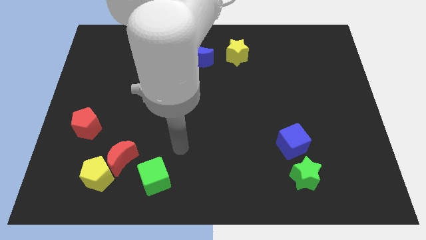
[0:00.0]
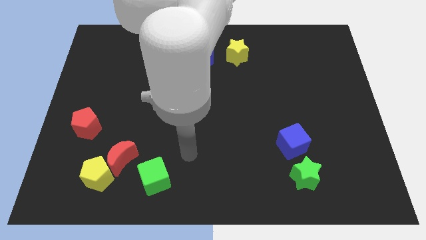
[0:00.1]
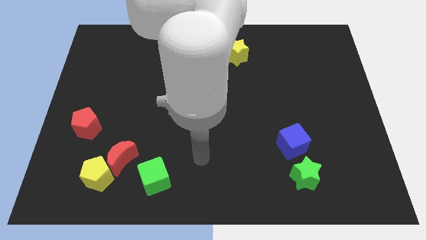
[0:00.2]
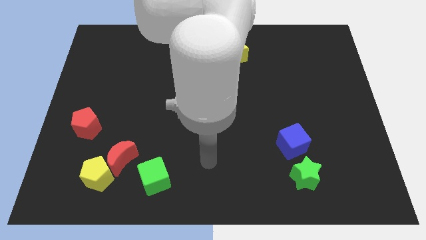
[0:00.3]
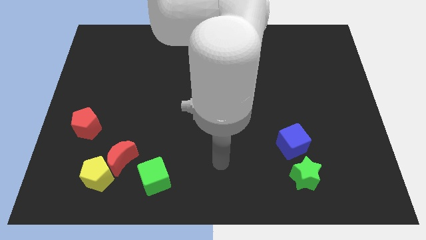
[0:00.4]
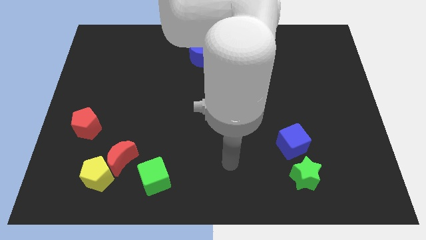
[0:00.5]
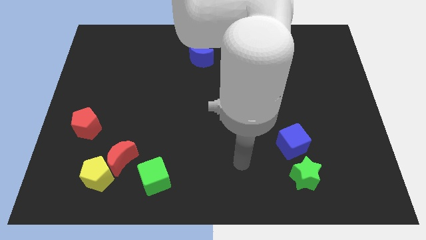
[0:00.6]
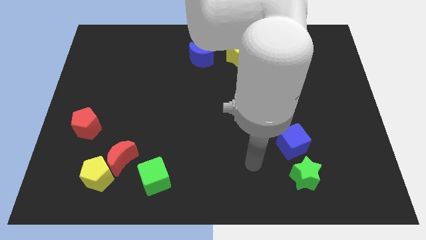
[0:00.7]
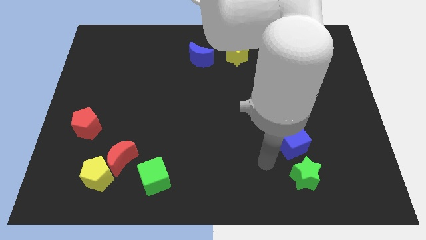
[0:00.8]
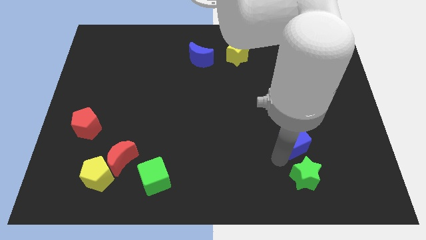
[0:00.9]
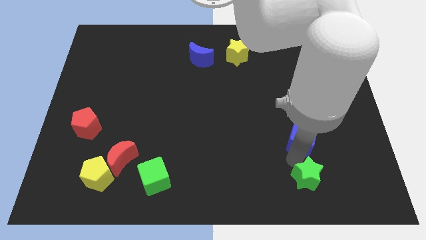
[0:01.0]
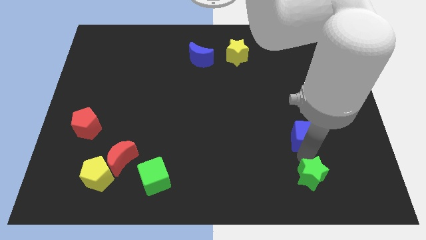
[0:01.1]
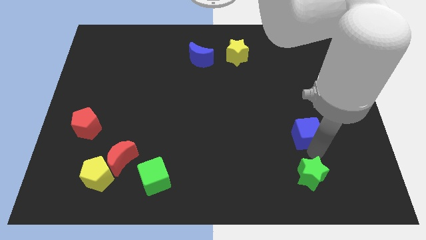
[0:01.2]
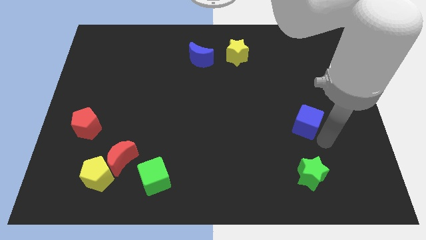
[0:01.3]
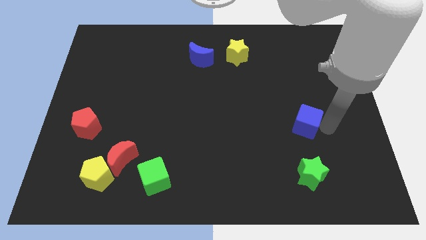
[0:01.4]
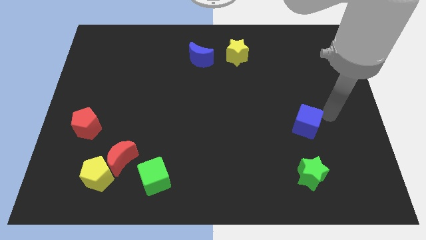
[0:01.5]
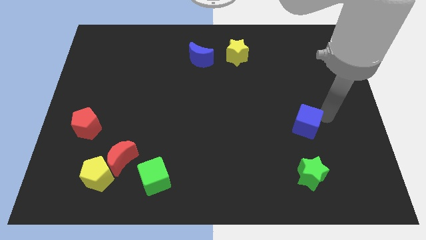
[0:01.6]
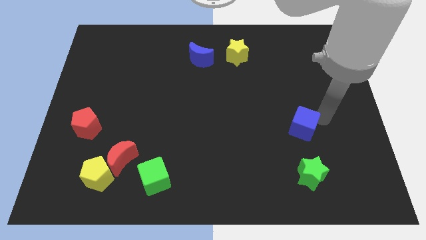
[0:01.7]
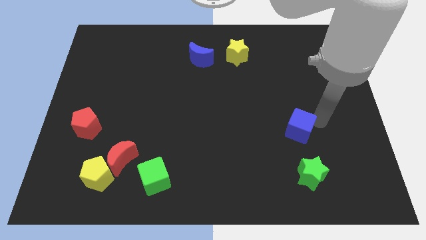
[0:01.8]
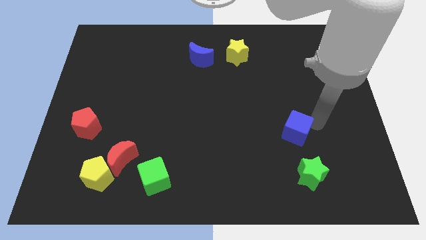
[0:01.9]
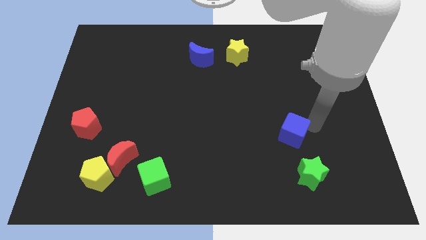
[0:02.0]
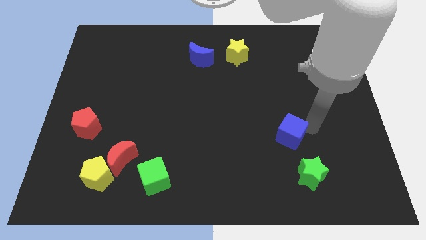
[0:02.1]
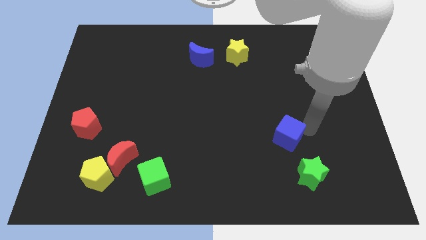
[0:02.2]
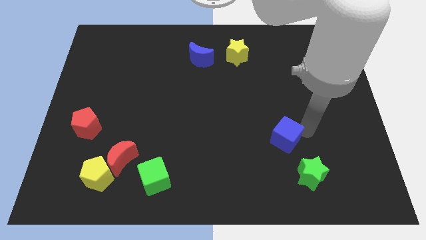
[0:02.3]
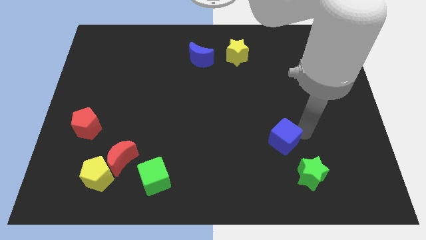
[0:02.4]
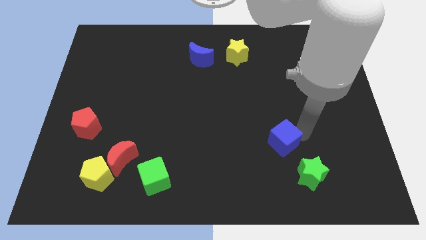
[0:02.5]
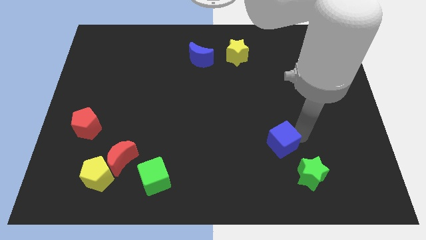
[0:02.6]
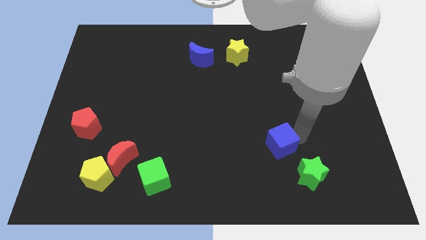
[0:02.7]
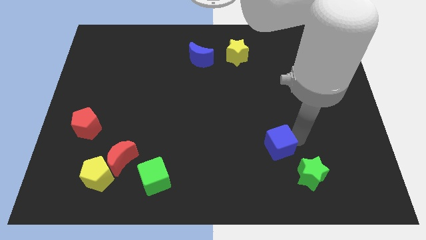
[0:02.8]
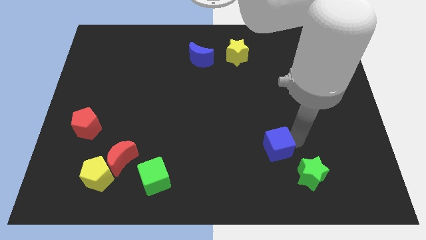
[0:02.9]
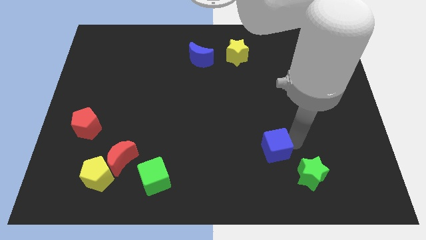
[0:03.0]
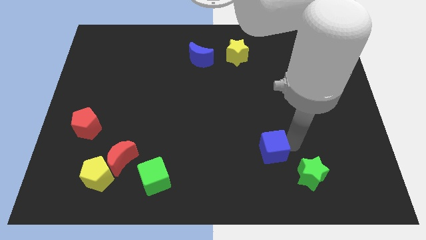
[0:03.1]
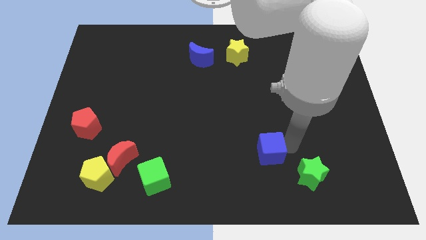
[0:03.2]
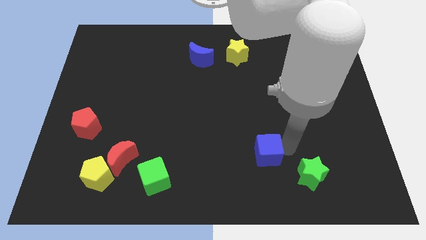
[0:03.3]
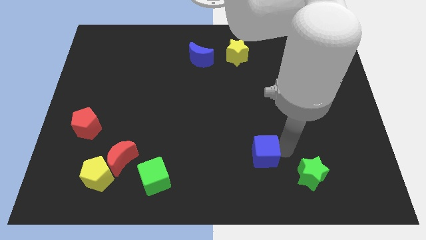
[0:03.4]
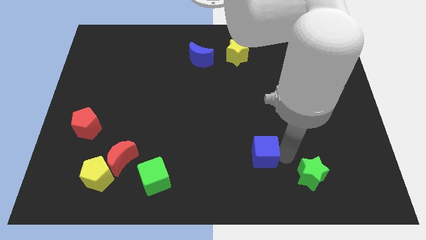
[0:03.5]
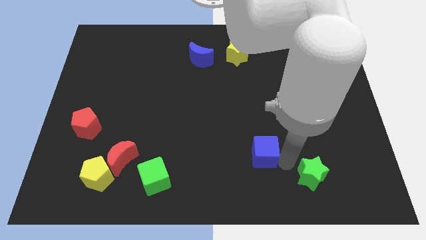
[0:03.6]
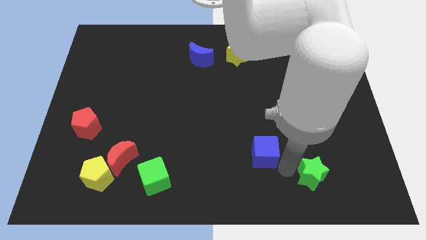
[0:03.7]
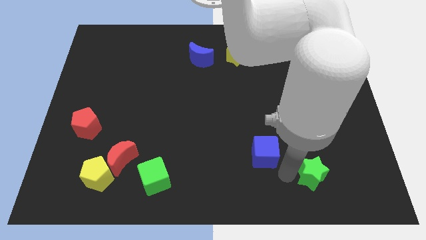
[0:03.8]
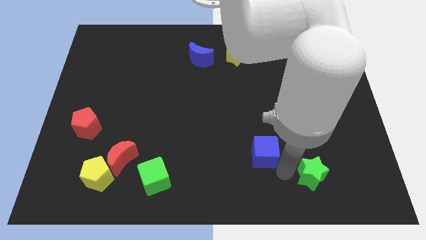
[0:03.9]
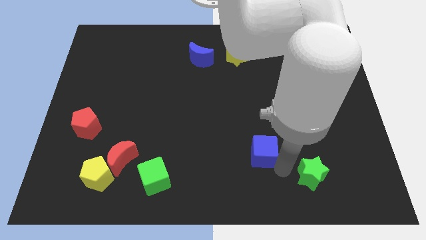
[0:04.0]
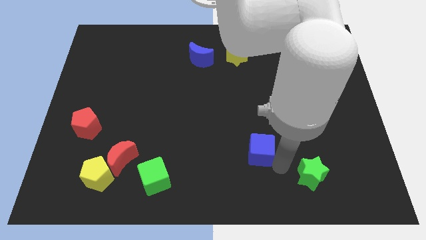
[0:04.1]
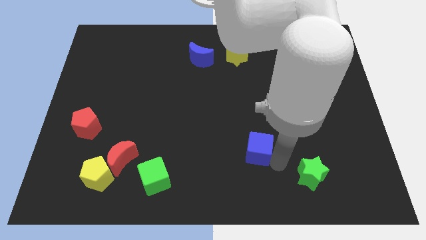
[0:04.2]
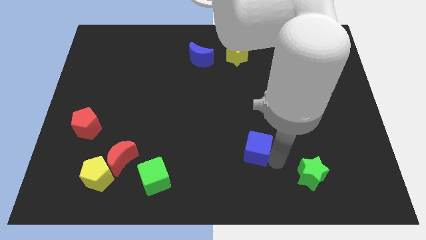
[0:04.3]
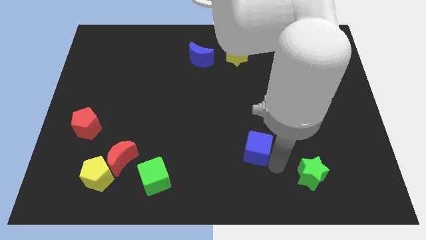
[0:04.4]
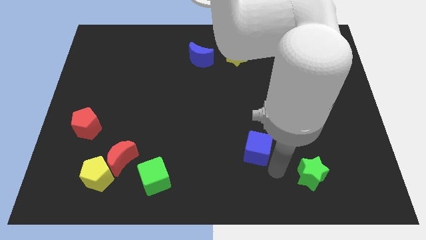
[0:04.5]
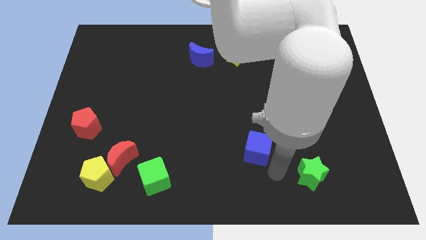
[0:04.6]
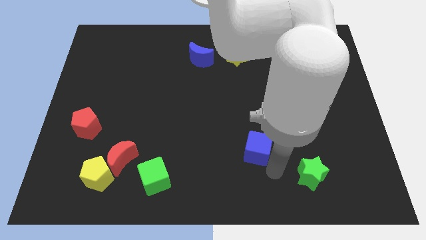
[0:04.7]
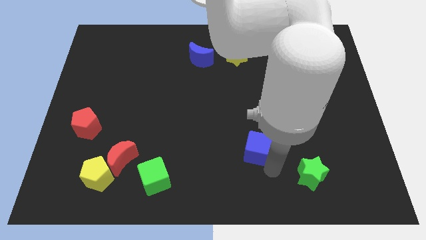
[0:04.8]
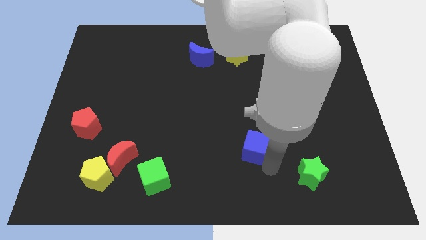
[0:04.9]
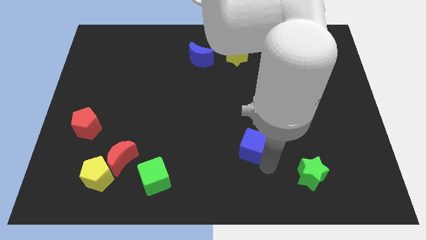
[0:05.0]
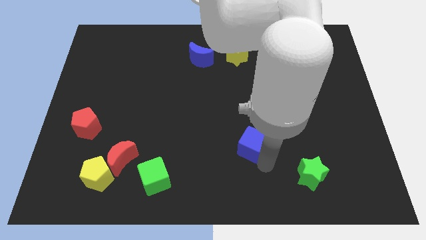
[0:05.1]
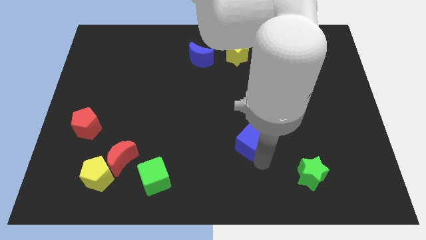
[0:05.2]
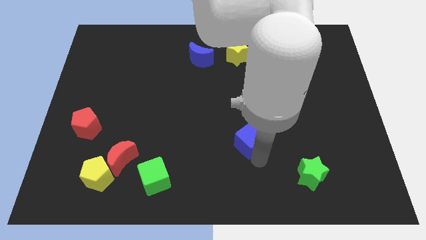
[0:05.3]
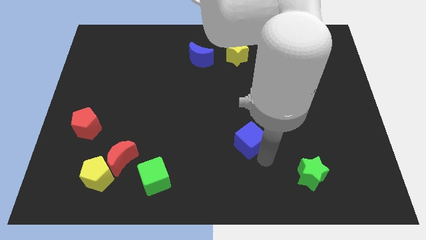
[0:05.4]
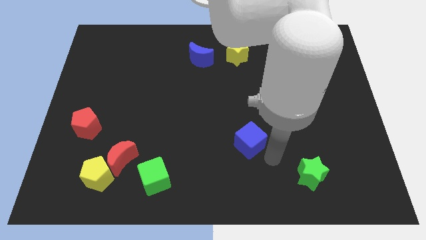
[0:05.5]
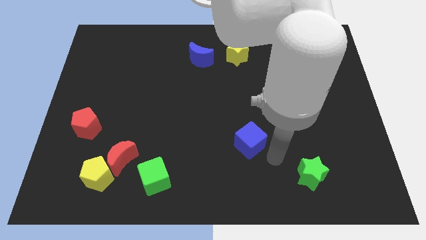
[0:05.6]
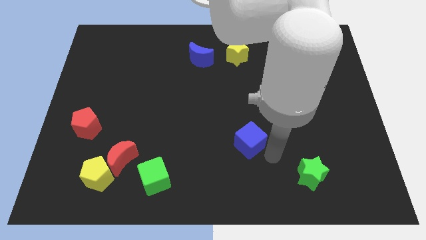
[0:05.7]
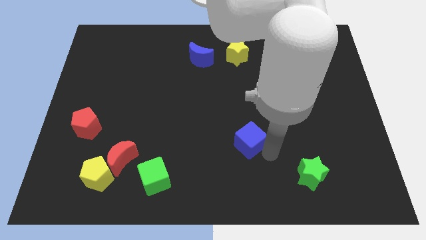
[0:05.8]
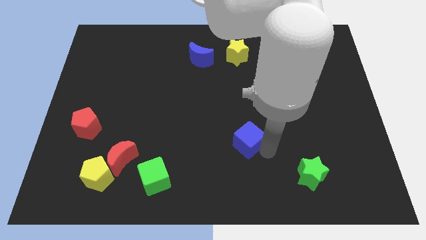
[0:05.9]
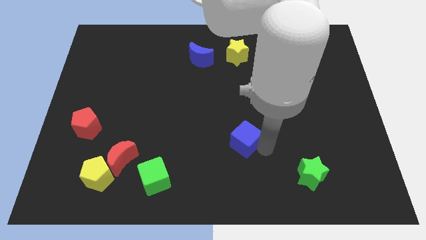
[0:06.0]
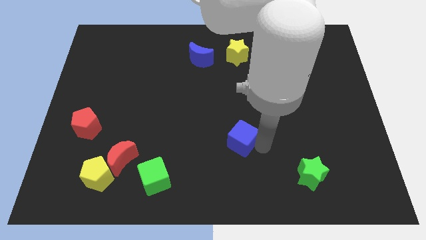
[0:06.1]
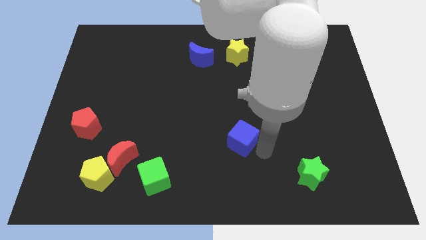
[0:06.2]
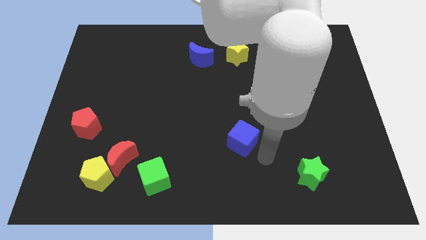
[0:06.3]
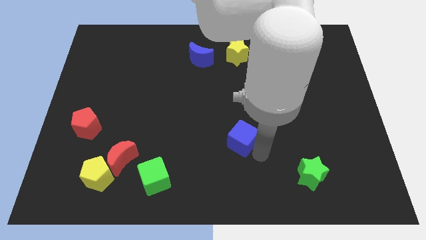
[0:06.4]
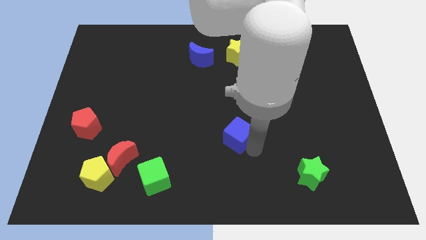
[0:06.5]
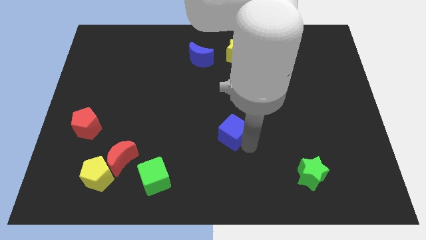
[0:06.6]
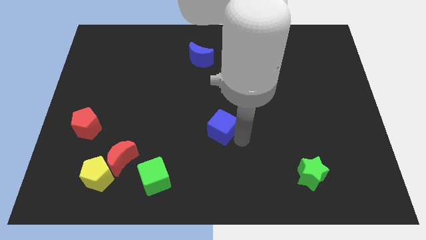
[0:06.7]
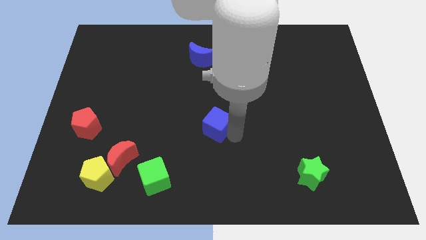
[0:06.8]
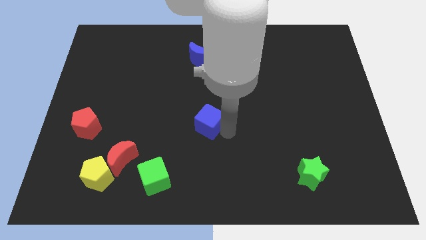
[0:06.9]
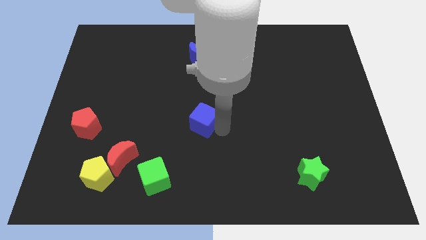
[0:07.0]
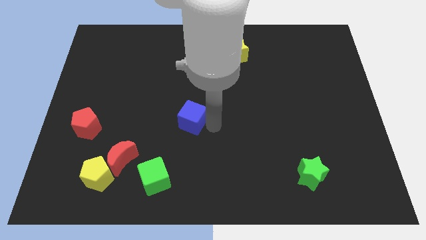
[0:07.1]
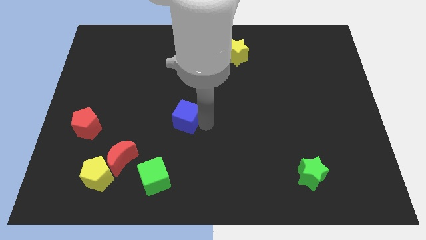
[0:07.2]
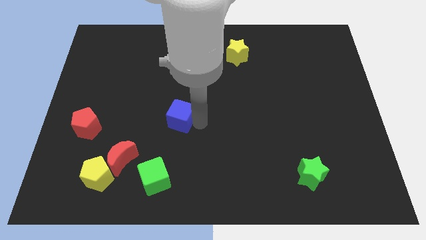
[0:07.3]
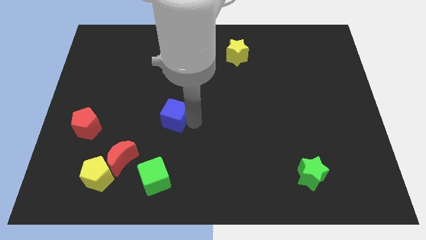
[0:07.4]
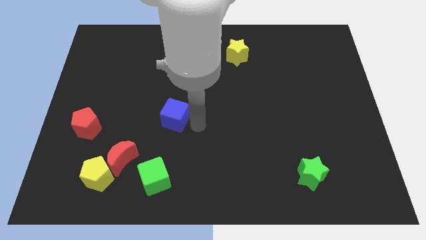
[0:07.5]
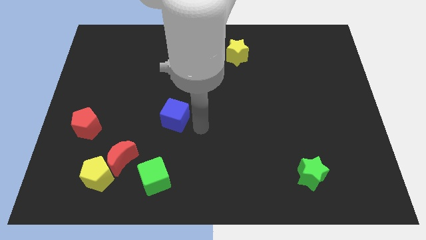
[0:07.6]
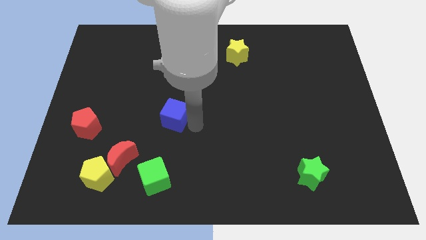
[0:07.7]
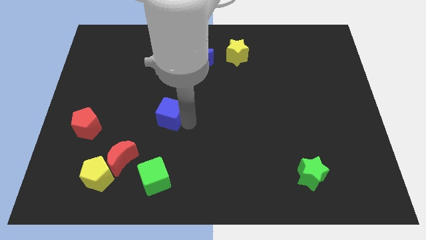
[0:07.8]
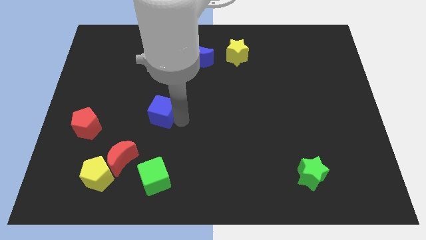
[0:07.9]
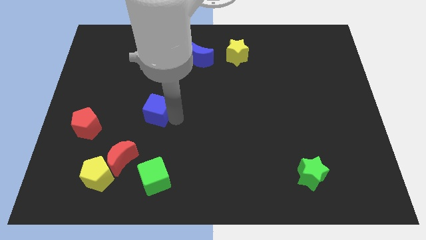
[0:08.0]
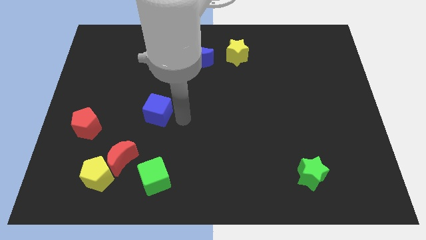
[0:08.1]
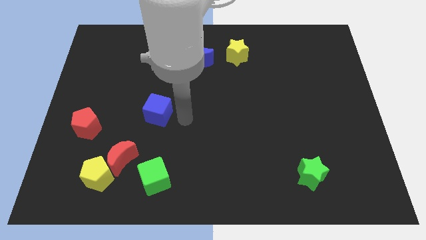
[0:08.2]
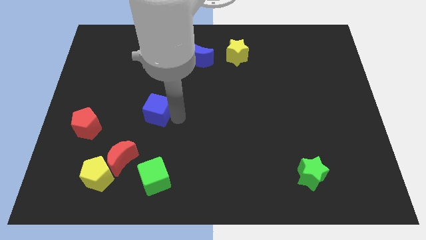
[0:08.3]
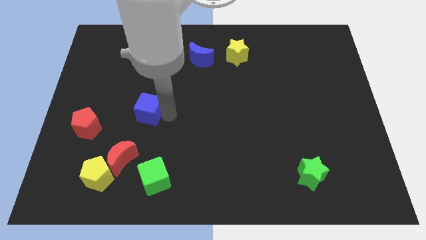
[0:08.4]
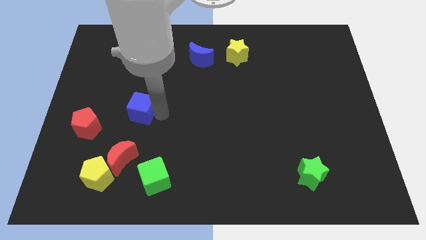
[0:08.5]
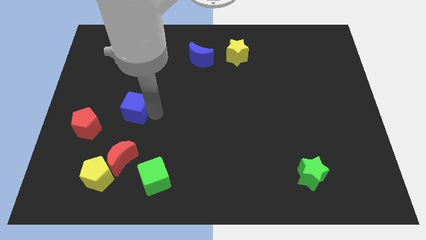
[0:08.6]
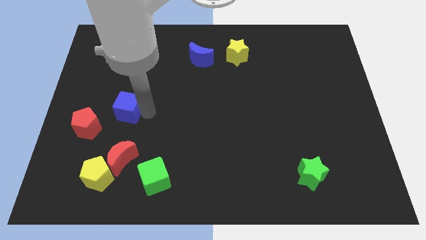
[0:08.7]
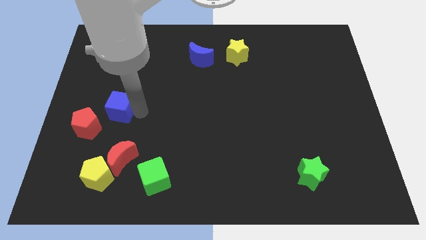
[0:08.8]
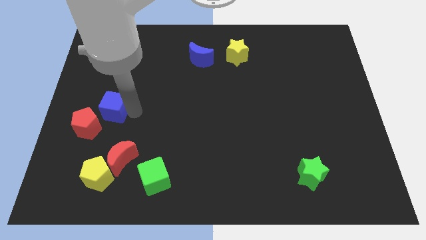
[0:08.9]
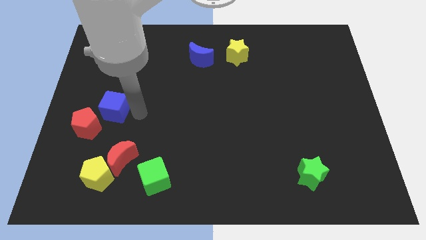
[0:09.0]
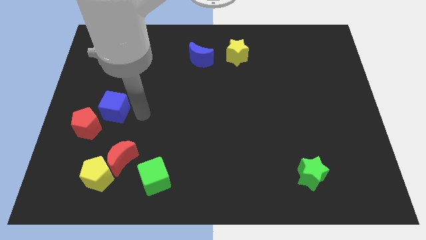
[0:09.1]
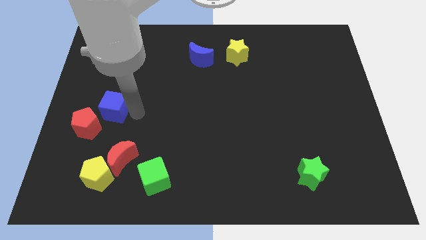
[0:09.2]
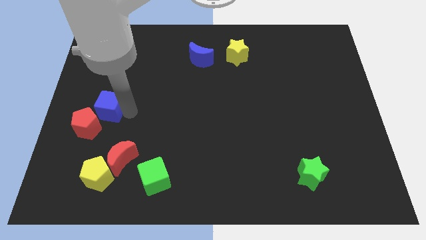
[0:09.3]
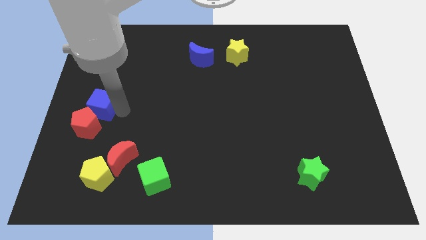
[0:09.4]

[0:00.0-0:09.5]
put the blue cube to the center left
